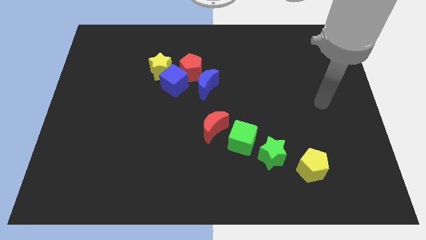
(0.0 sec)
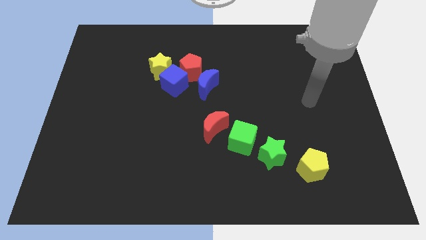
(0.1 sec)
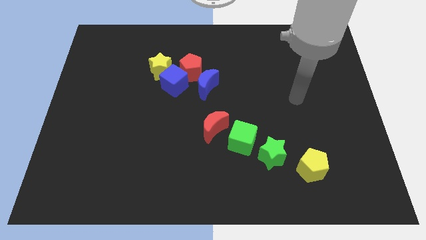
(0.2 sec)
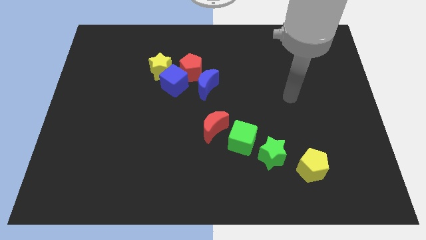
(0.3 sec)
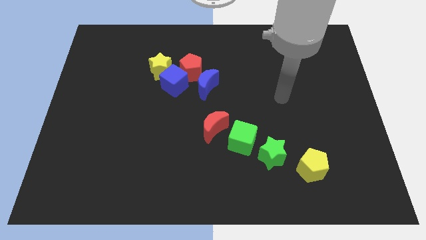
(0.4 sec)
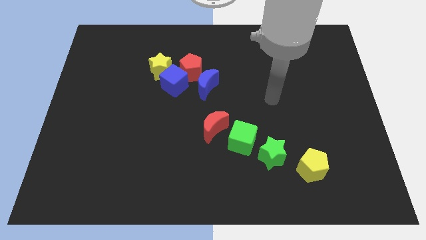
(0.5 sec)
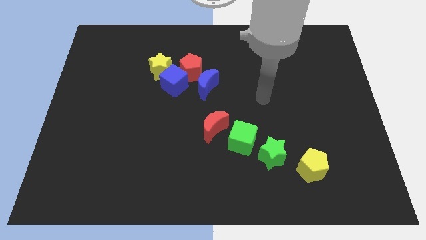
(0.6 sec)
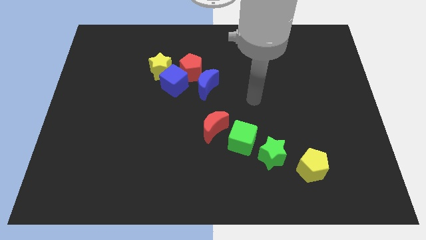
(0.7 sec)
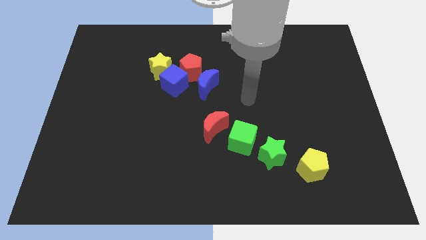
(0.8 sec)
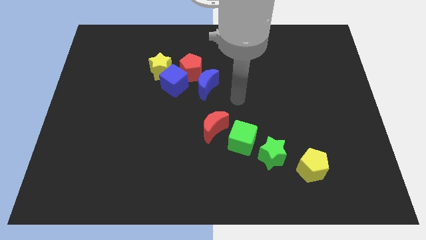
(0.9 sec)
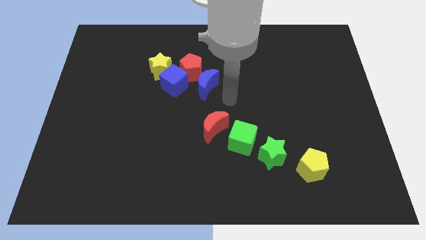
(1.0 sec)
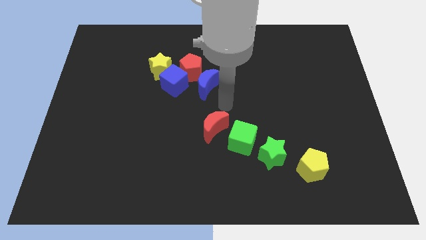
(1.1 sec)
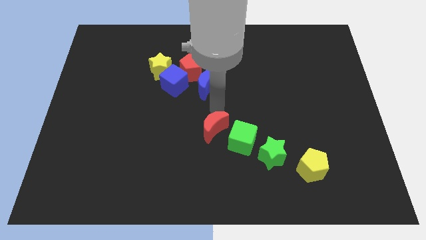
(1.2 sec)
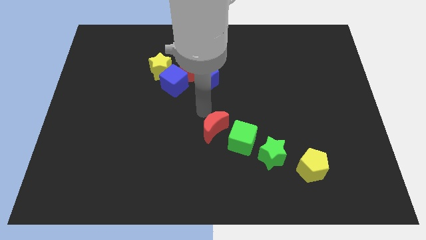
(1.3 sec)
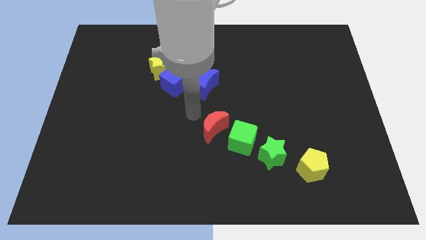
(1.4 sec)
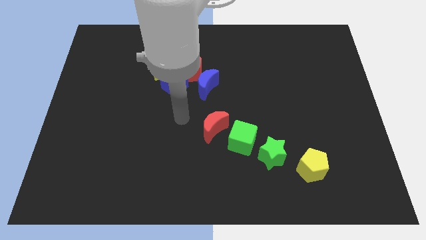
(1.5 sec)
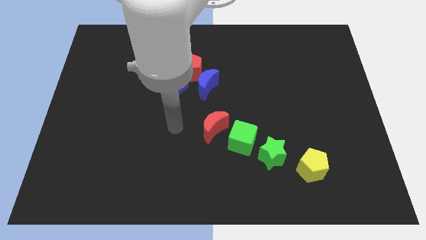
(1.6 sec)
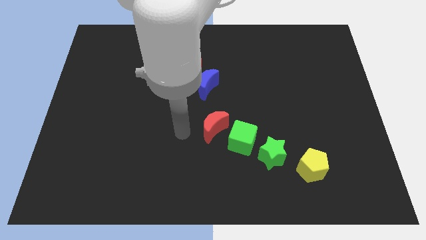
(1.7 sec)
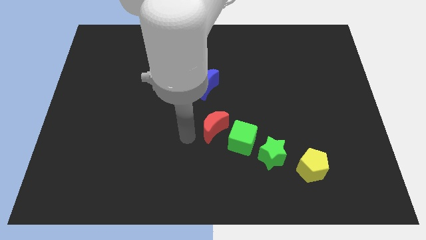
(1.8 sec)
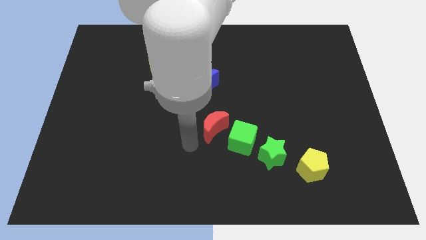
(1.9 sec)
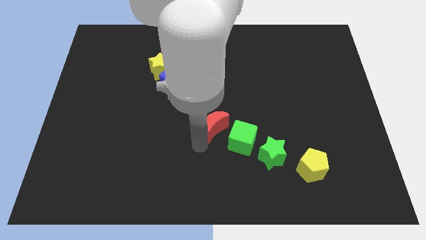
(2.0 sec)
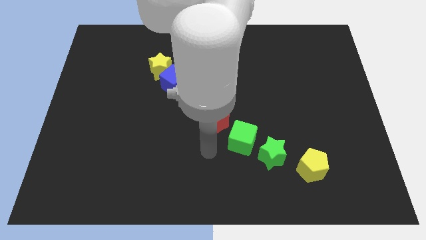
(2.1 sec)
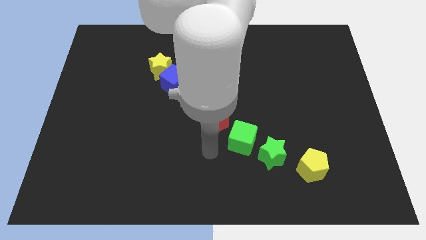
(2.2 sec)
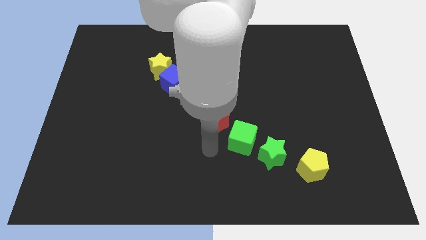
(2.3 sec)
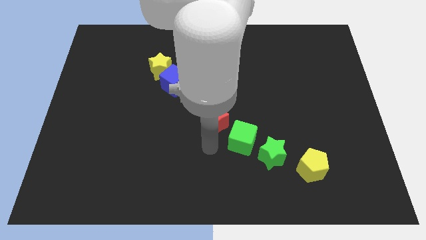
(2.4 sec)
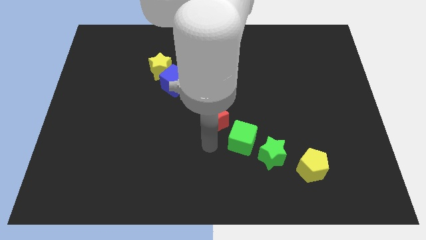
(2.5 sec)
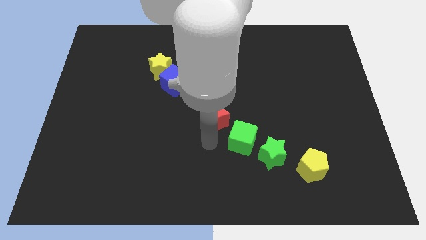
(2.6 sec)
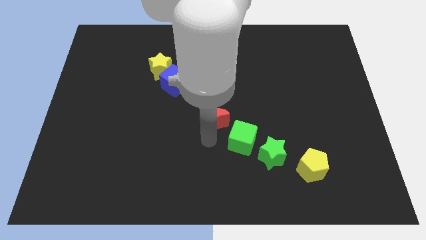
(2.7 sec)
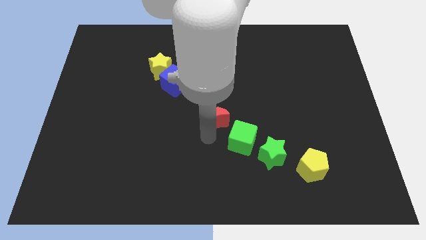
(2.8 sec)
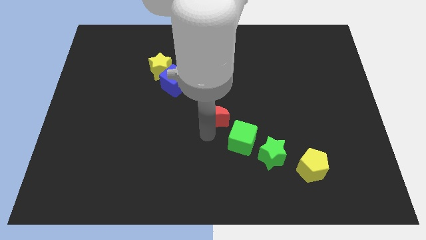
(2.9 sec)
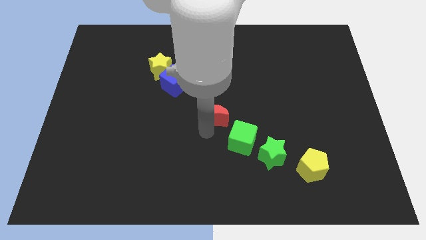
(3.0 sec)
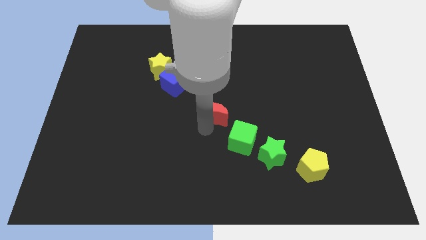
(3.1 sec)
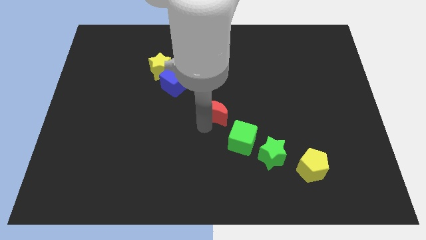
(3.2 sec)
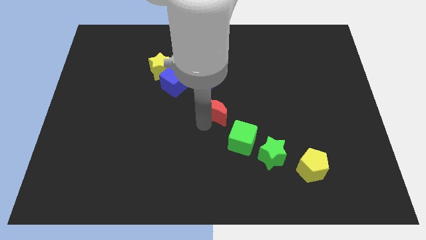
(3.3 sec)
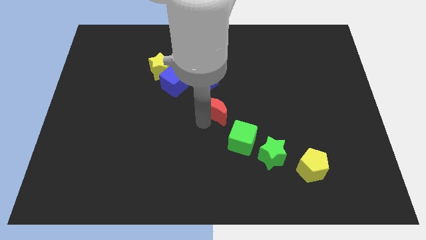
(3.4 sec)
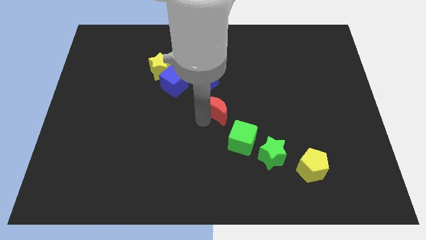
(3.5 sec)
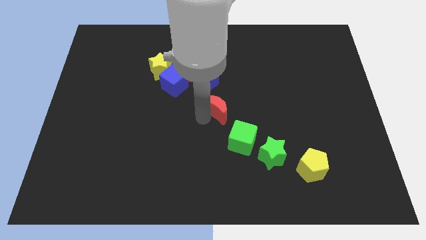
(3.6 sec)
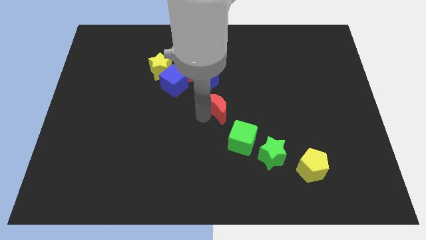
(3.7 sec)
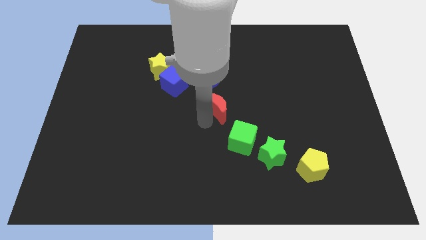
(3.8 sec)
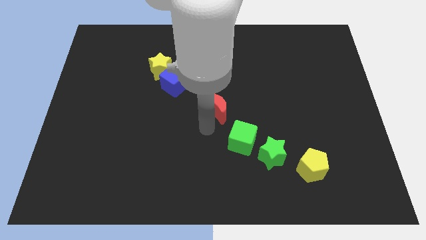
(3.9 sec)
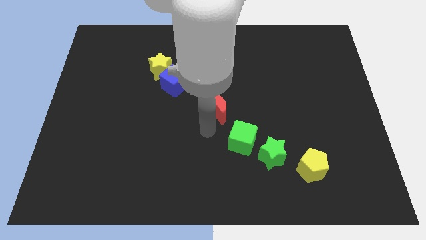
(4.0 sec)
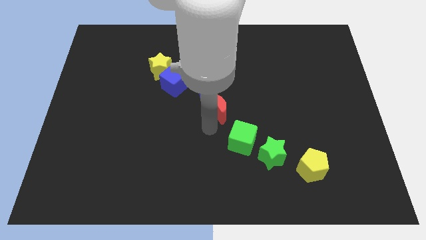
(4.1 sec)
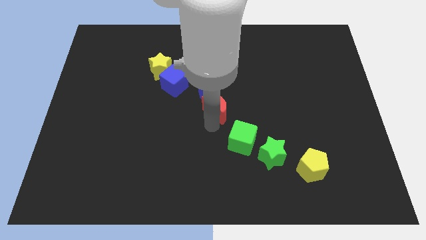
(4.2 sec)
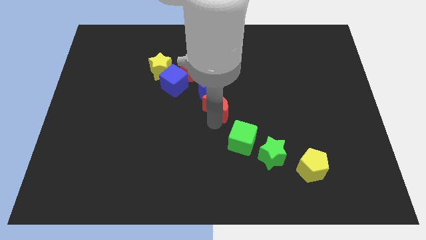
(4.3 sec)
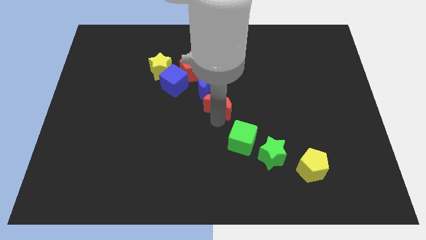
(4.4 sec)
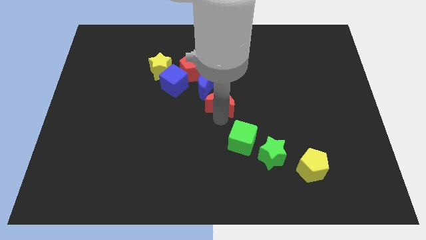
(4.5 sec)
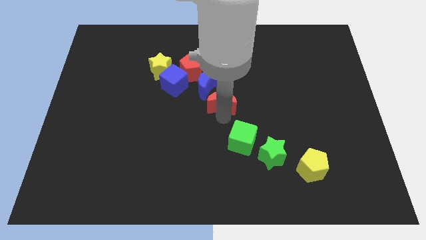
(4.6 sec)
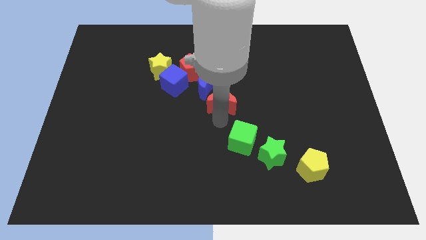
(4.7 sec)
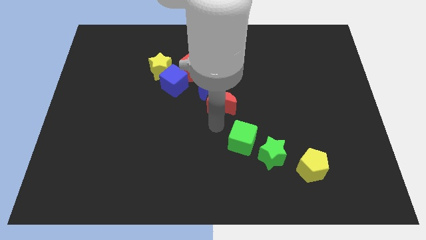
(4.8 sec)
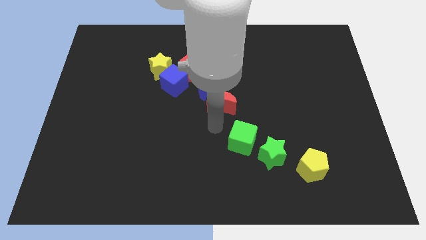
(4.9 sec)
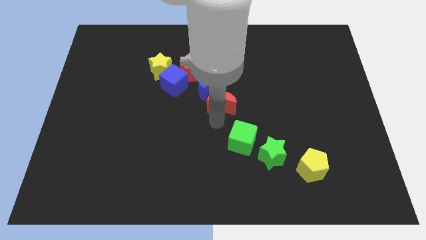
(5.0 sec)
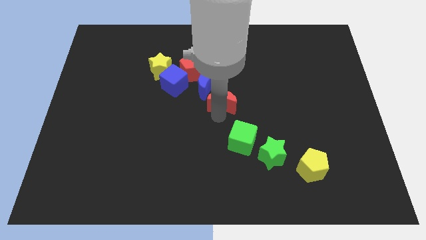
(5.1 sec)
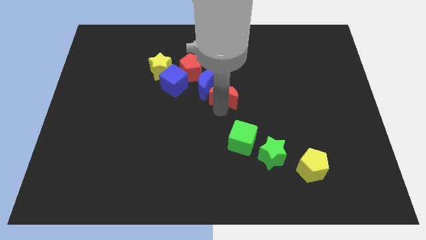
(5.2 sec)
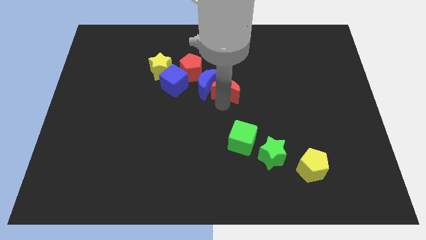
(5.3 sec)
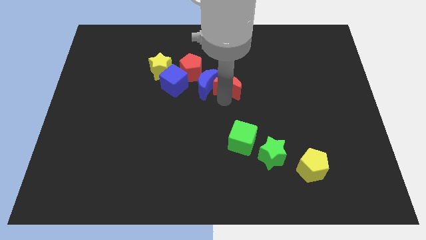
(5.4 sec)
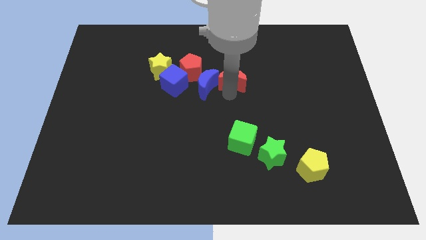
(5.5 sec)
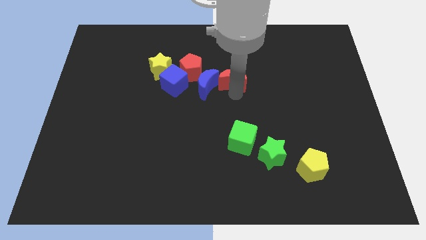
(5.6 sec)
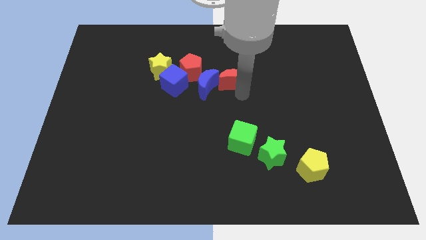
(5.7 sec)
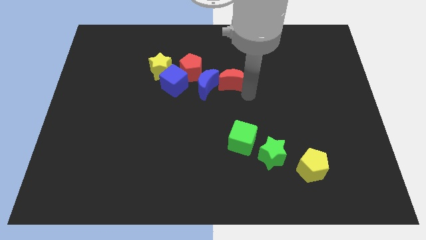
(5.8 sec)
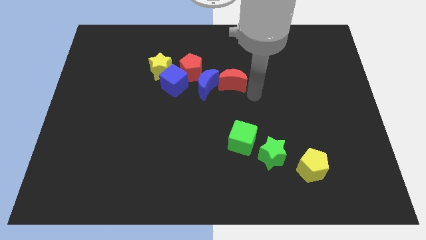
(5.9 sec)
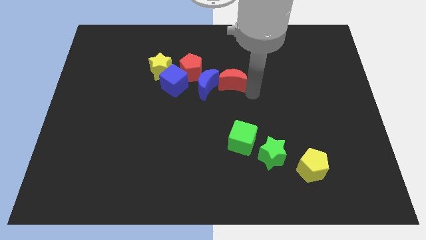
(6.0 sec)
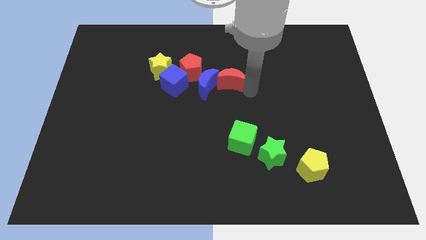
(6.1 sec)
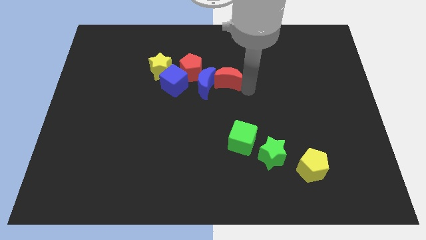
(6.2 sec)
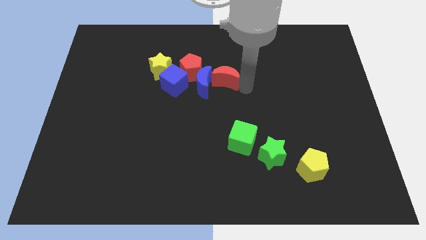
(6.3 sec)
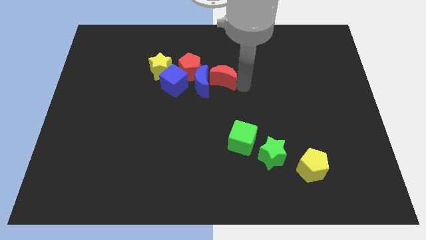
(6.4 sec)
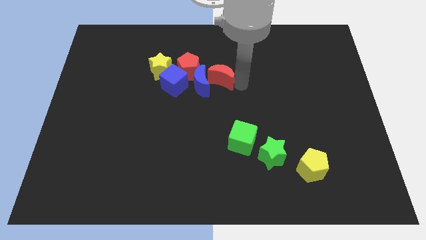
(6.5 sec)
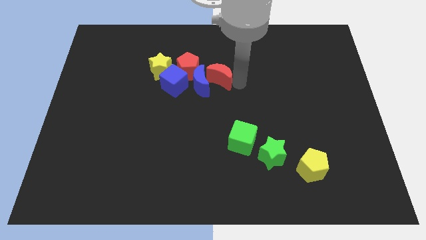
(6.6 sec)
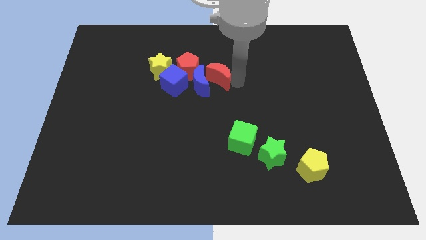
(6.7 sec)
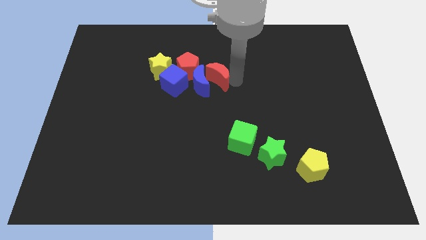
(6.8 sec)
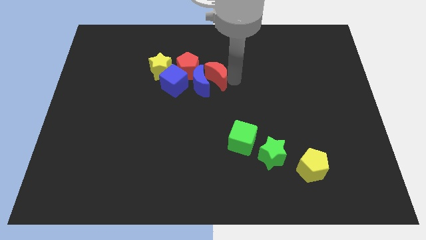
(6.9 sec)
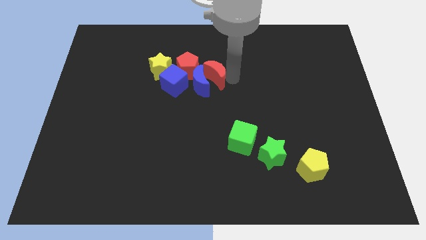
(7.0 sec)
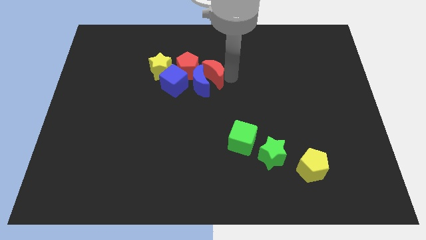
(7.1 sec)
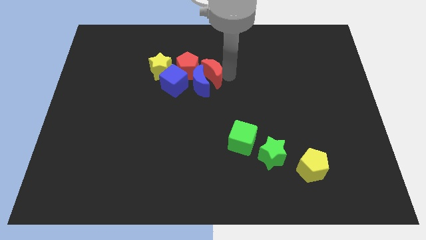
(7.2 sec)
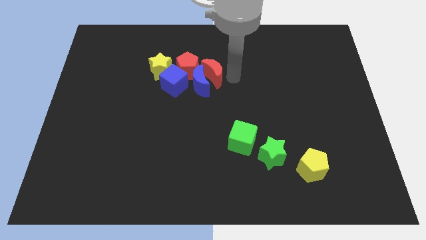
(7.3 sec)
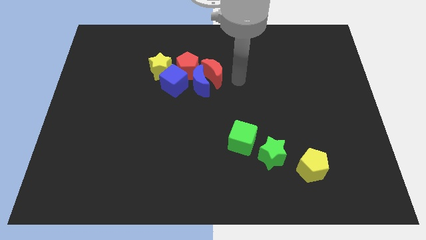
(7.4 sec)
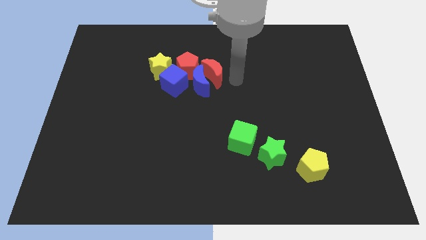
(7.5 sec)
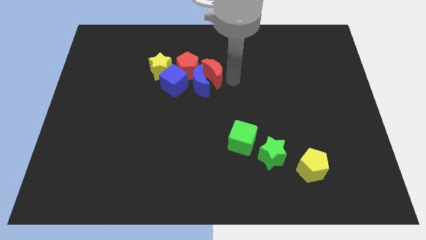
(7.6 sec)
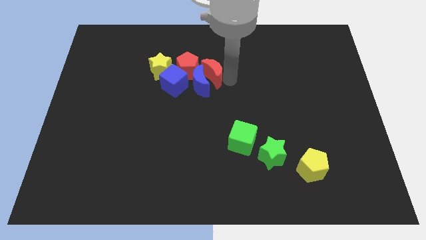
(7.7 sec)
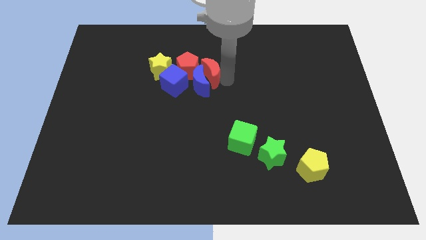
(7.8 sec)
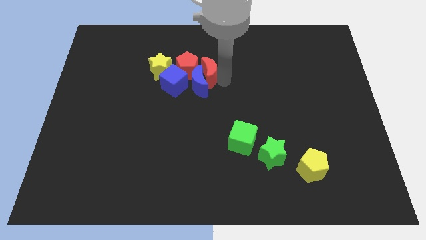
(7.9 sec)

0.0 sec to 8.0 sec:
move the red moon next to the red pentagon
